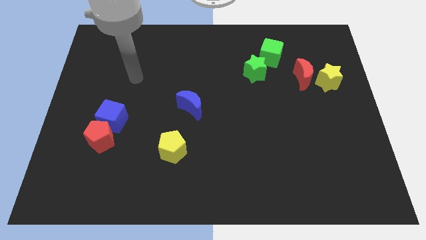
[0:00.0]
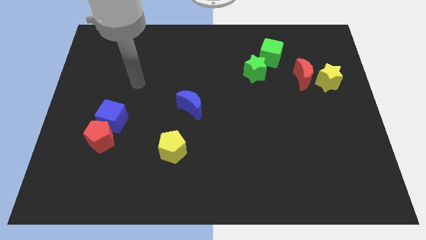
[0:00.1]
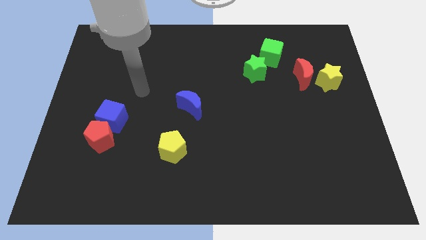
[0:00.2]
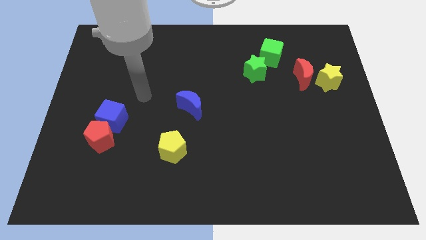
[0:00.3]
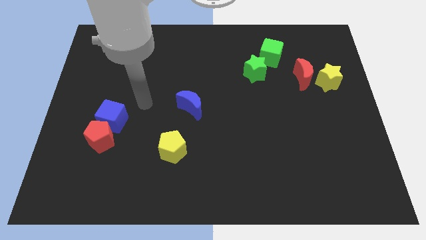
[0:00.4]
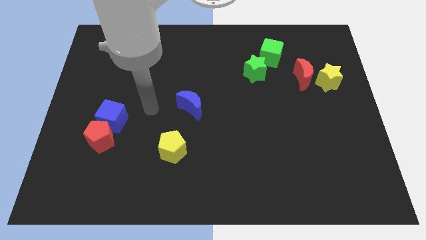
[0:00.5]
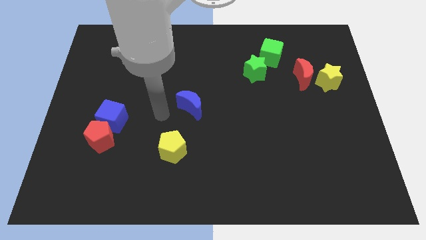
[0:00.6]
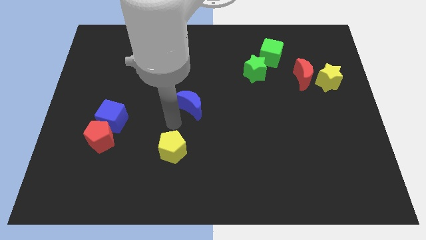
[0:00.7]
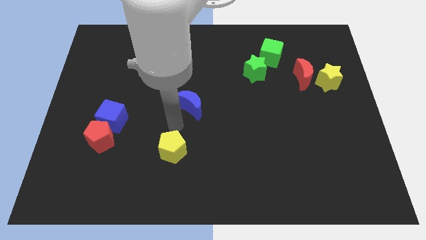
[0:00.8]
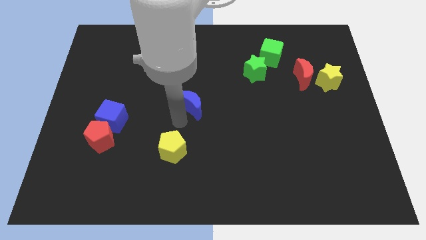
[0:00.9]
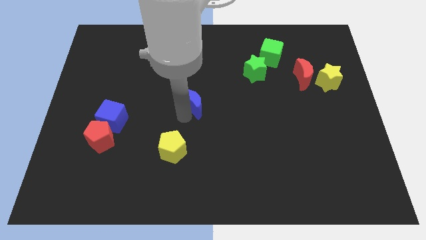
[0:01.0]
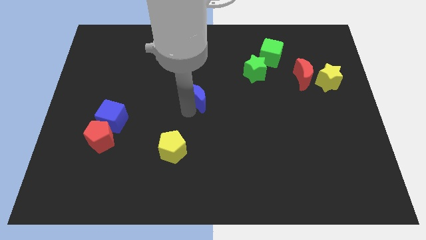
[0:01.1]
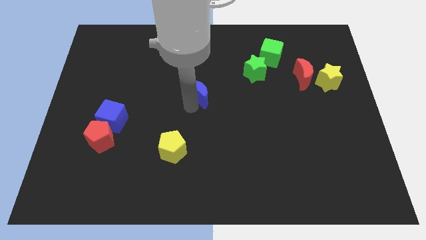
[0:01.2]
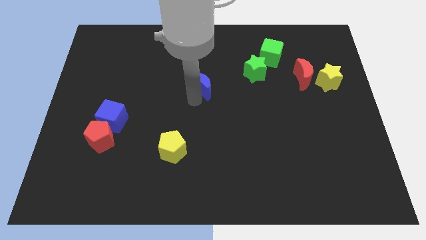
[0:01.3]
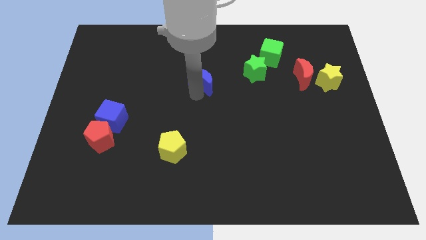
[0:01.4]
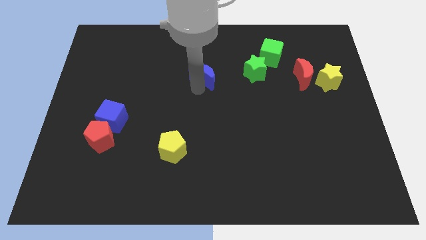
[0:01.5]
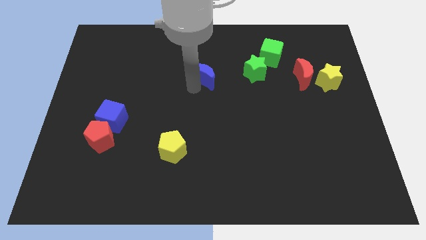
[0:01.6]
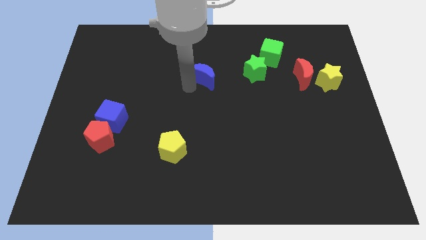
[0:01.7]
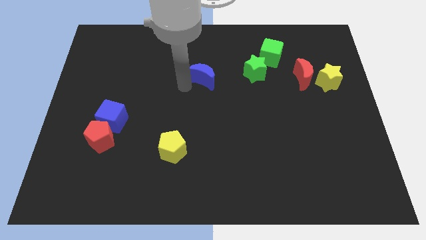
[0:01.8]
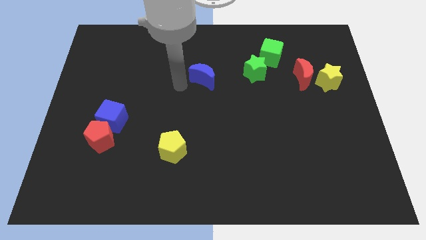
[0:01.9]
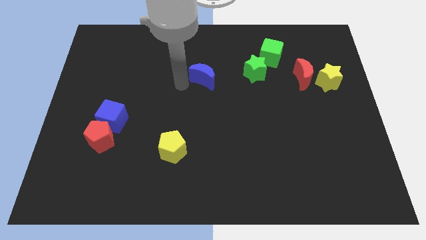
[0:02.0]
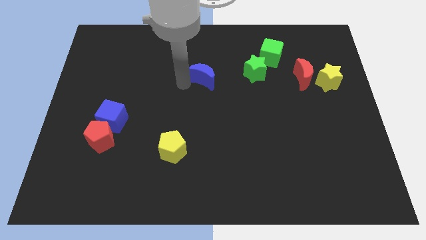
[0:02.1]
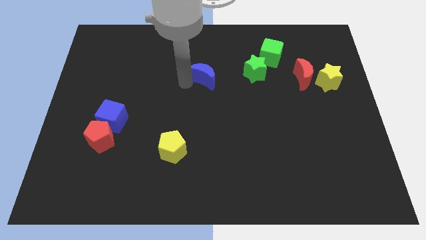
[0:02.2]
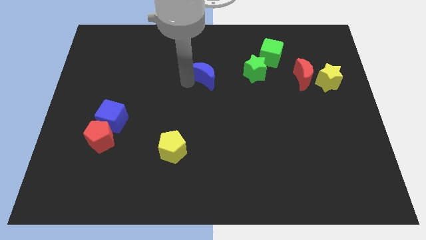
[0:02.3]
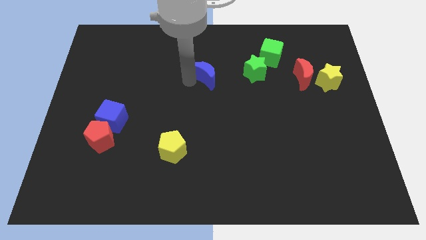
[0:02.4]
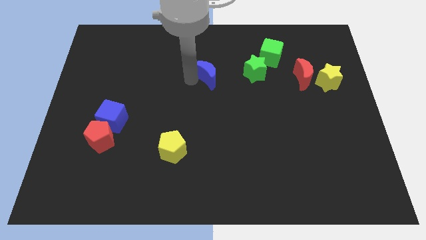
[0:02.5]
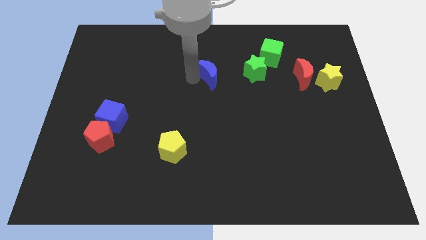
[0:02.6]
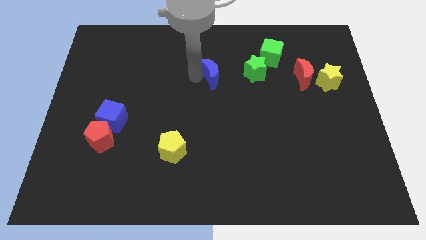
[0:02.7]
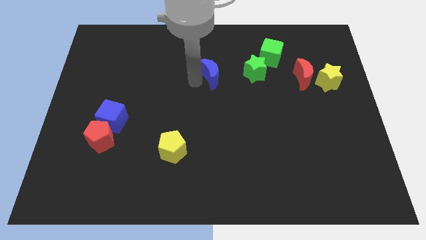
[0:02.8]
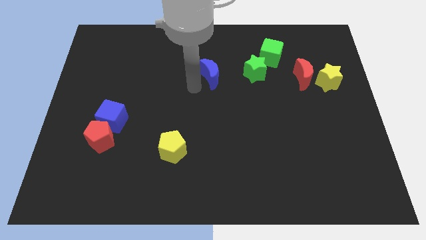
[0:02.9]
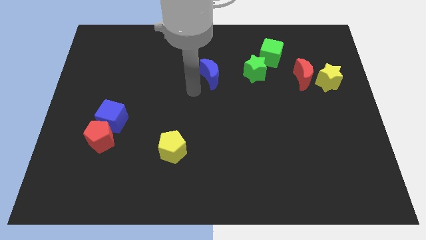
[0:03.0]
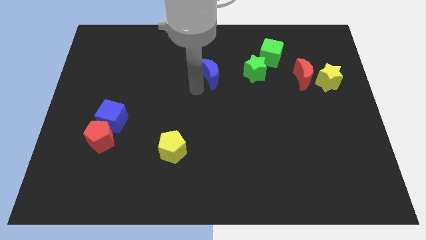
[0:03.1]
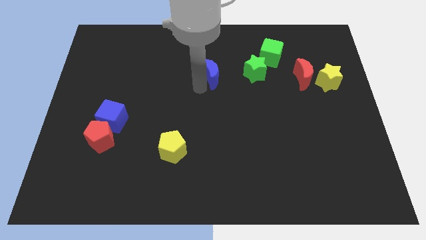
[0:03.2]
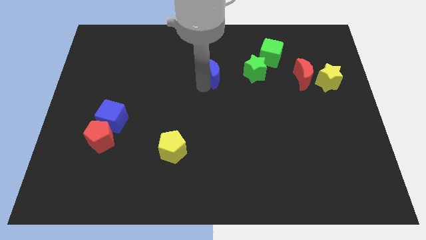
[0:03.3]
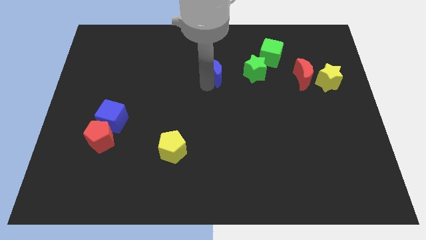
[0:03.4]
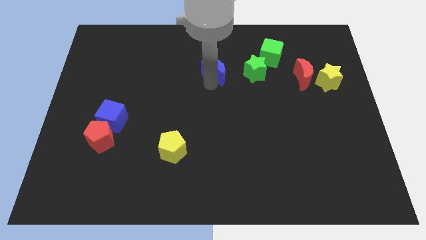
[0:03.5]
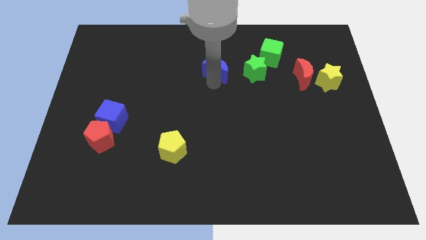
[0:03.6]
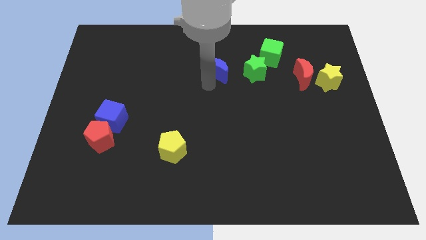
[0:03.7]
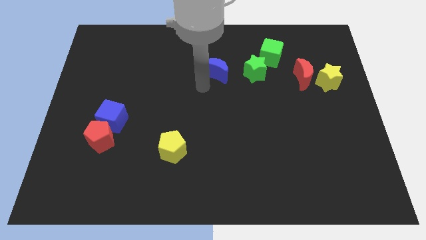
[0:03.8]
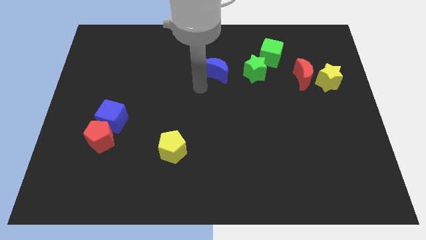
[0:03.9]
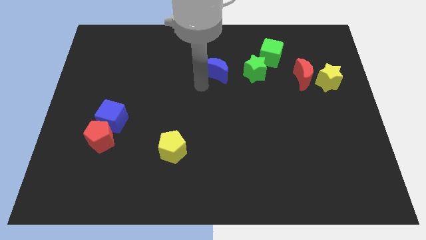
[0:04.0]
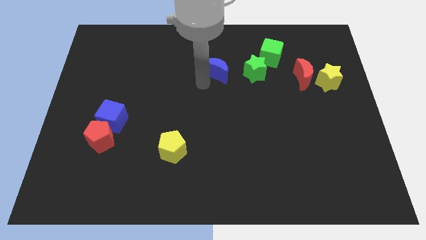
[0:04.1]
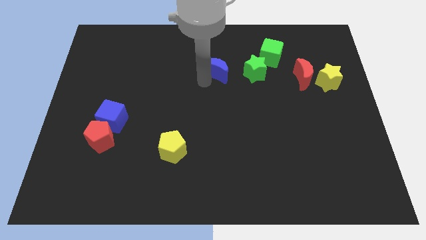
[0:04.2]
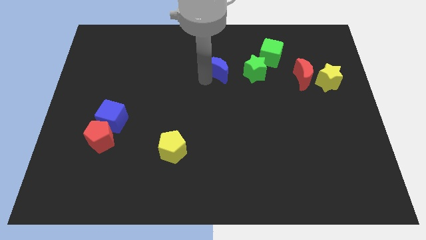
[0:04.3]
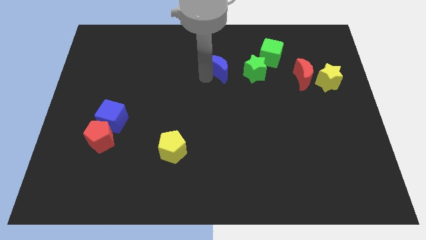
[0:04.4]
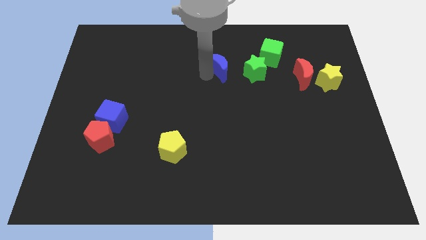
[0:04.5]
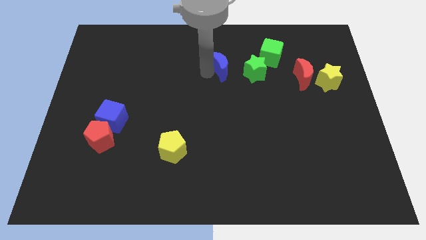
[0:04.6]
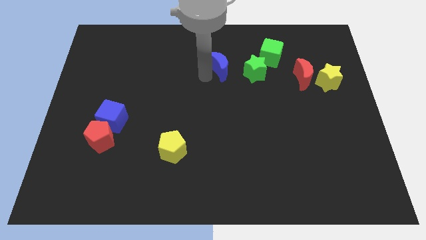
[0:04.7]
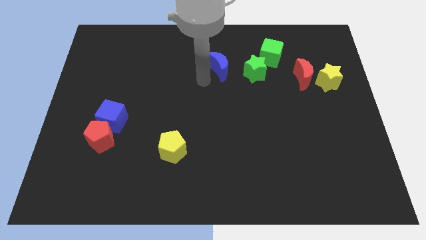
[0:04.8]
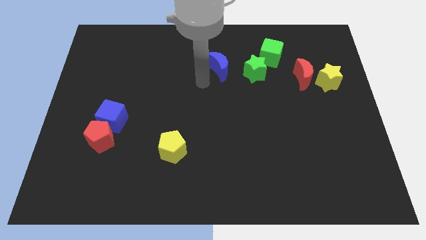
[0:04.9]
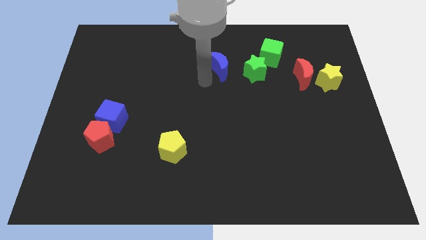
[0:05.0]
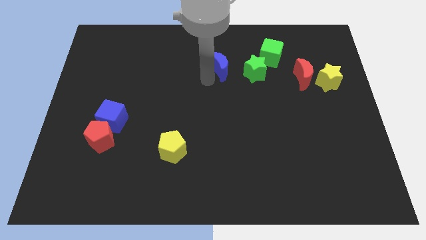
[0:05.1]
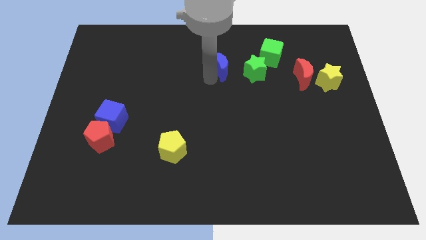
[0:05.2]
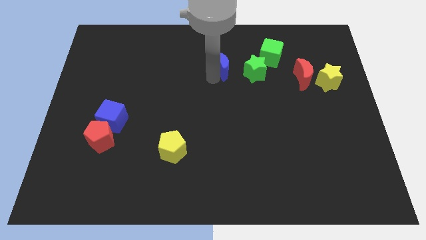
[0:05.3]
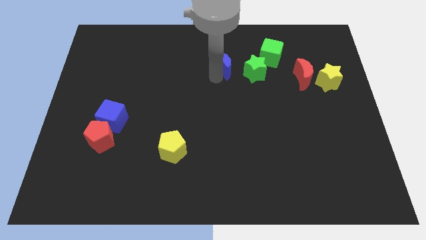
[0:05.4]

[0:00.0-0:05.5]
put the blue moon diagonally up and to the left of the green star

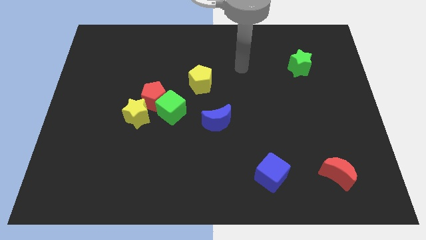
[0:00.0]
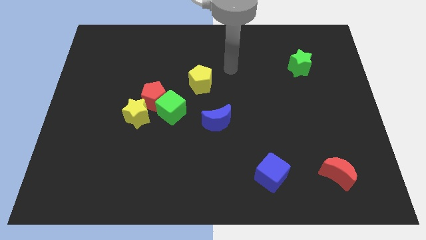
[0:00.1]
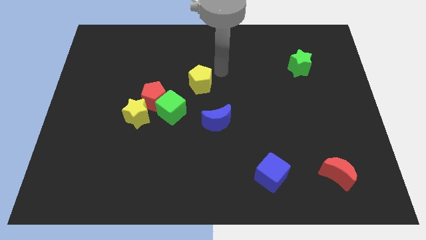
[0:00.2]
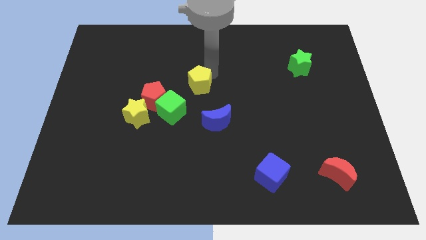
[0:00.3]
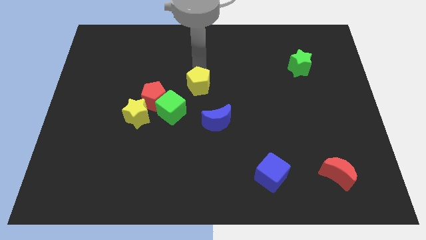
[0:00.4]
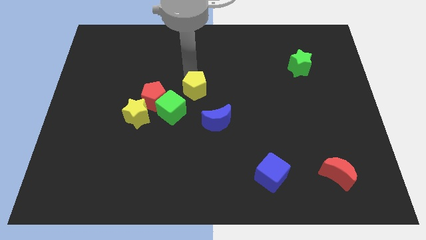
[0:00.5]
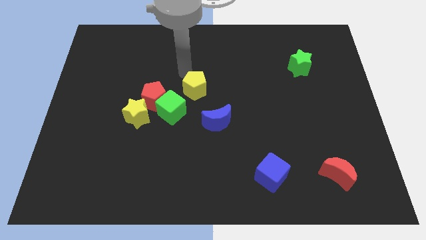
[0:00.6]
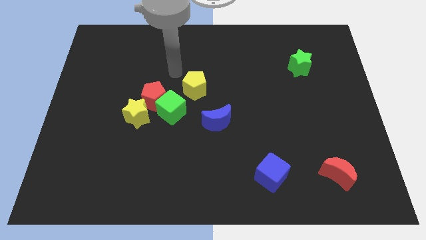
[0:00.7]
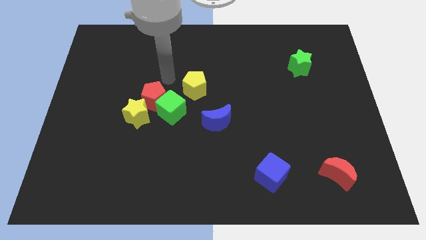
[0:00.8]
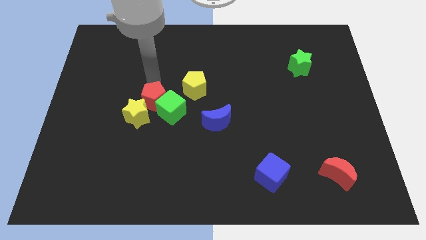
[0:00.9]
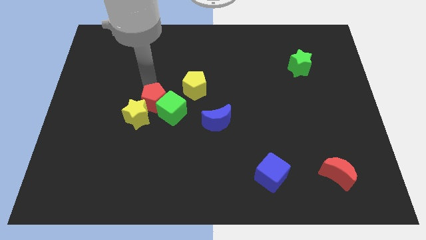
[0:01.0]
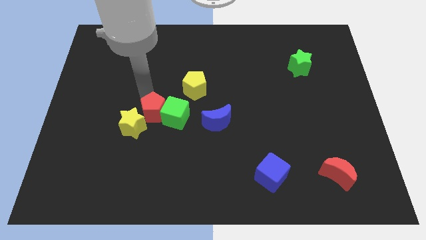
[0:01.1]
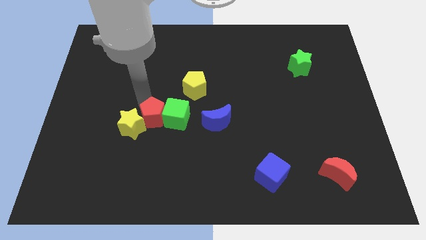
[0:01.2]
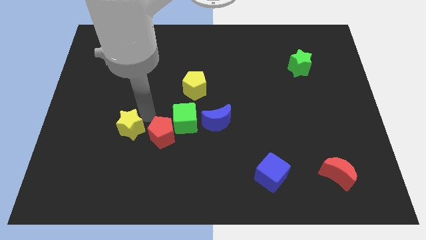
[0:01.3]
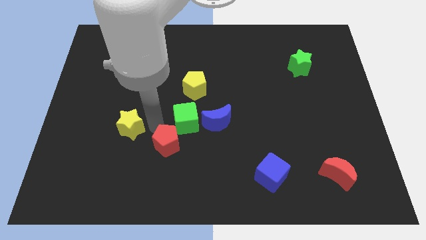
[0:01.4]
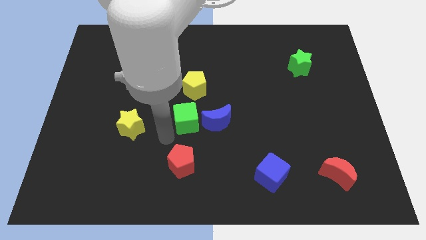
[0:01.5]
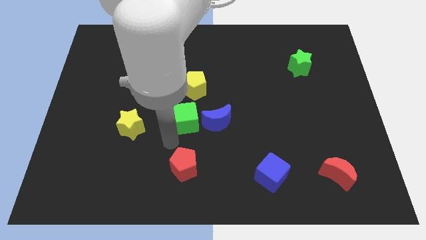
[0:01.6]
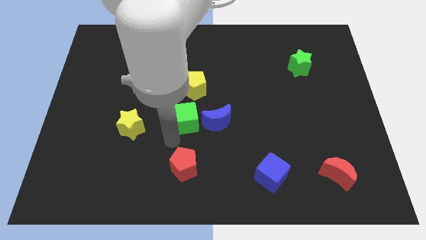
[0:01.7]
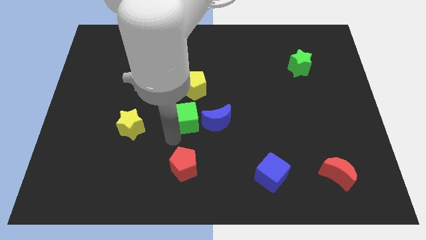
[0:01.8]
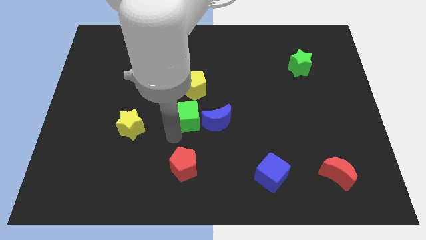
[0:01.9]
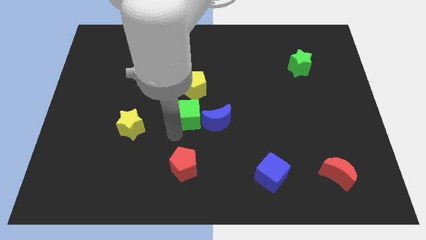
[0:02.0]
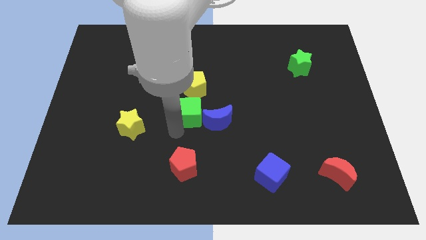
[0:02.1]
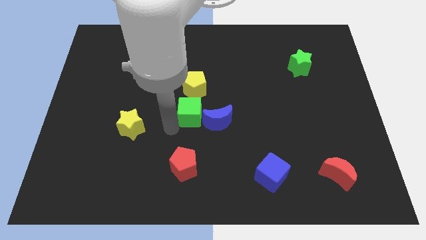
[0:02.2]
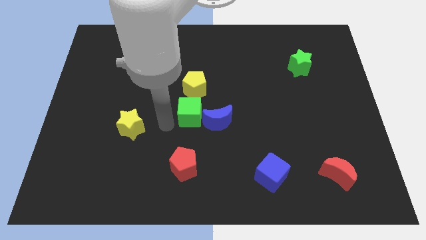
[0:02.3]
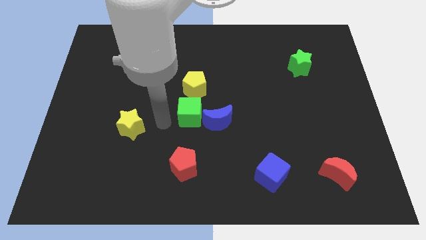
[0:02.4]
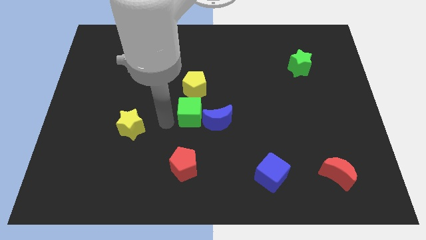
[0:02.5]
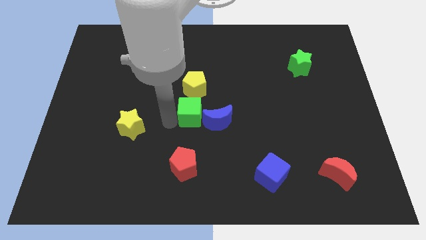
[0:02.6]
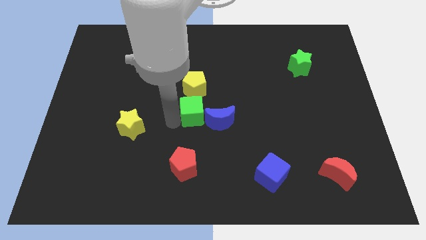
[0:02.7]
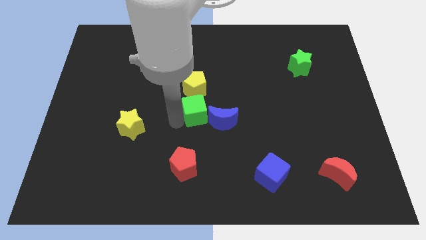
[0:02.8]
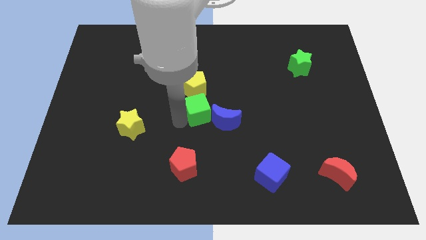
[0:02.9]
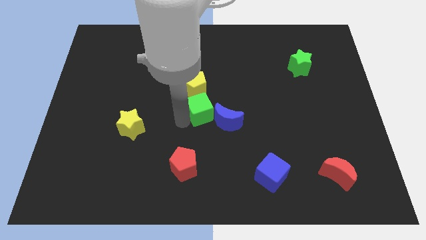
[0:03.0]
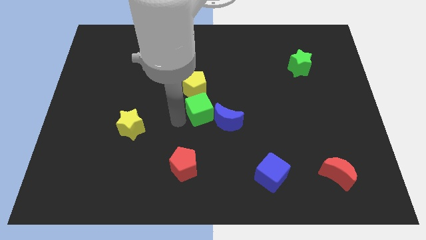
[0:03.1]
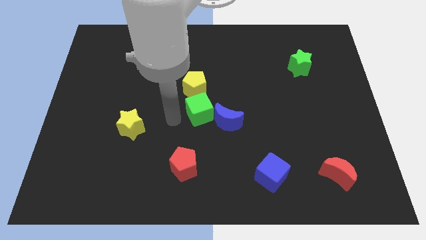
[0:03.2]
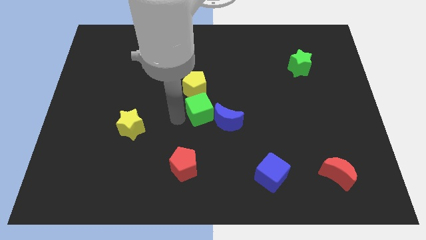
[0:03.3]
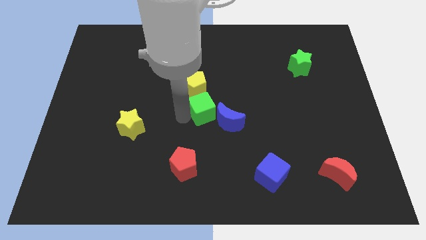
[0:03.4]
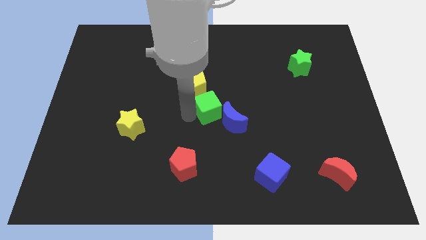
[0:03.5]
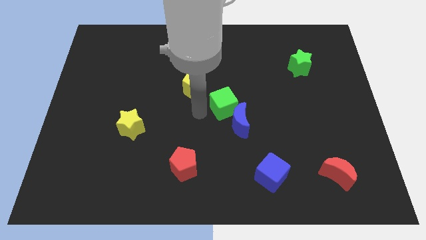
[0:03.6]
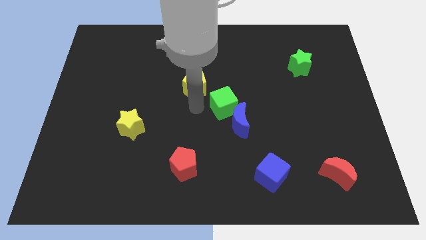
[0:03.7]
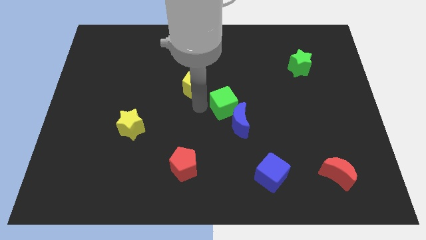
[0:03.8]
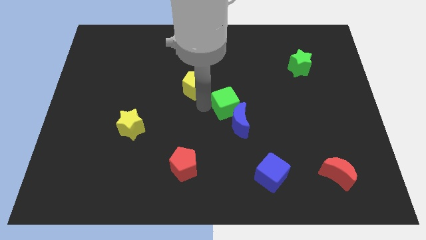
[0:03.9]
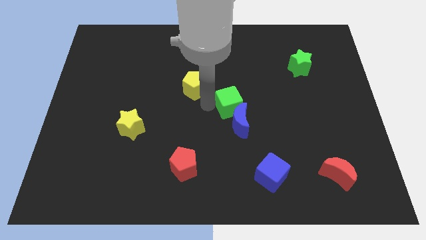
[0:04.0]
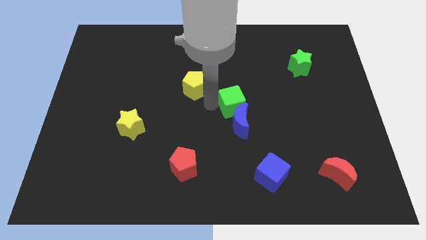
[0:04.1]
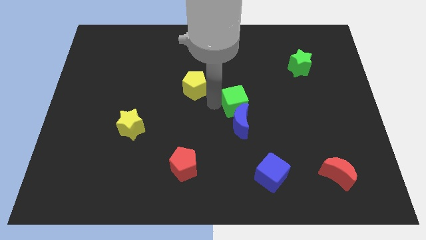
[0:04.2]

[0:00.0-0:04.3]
push the green cube to the top right side of the blue moon
